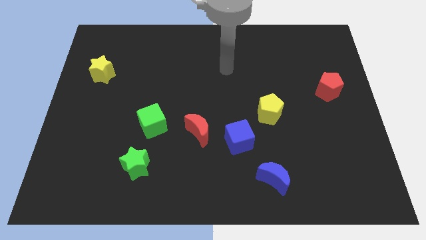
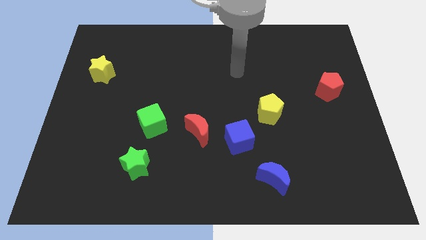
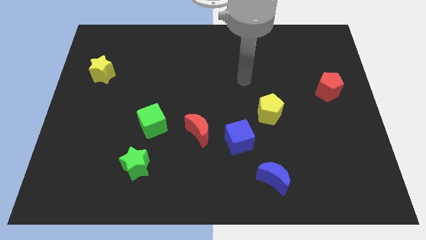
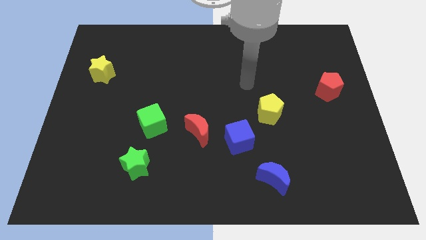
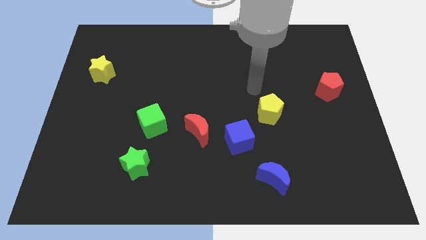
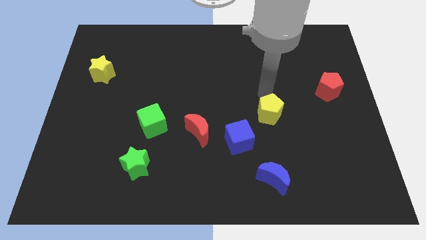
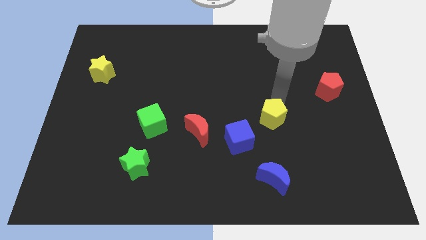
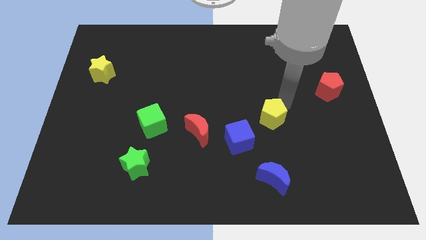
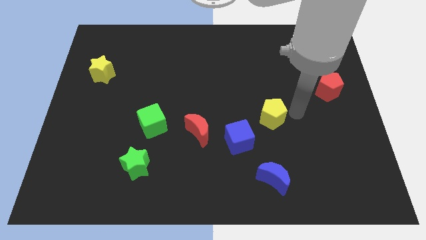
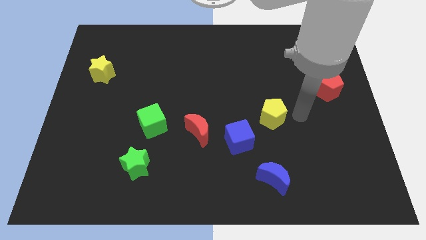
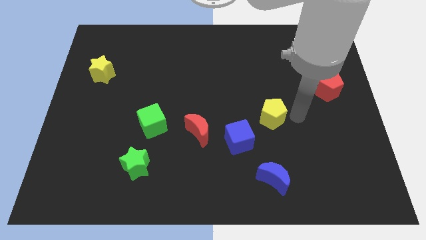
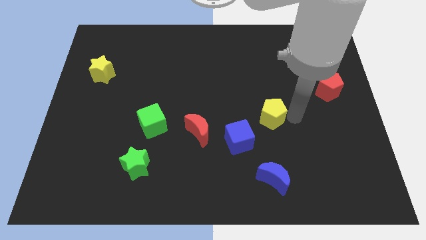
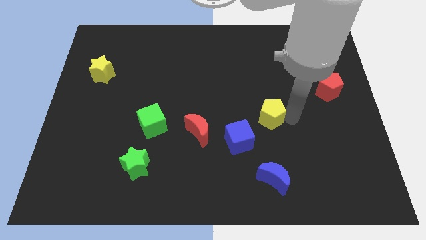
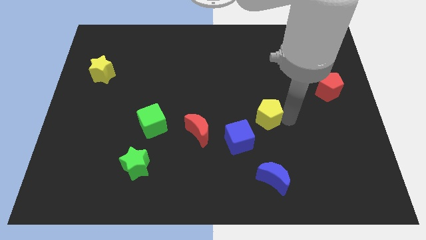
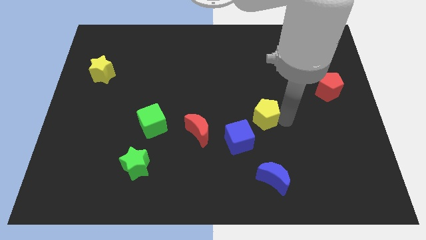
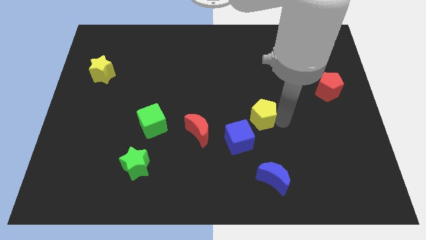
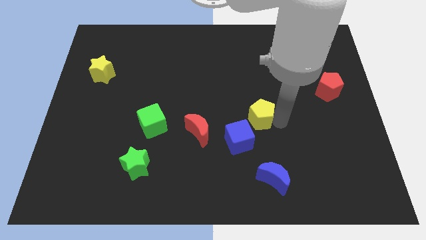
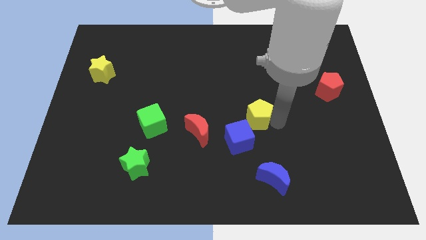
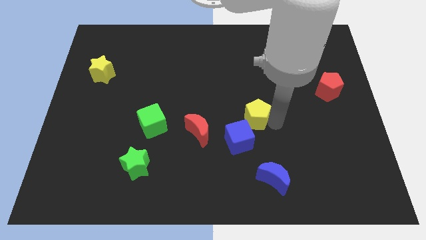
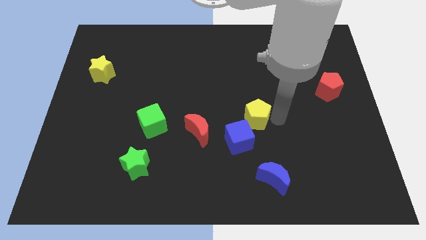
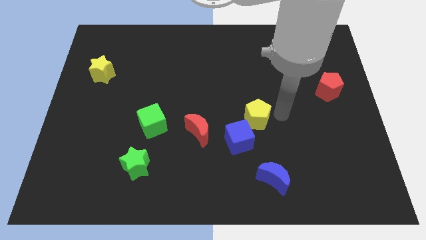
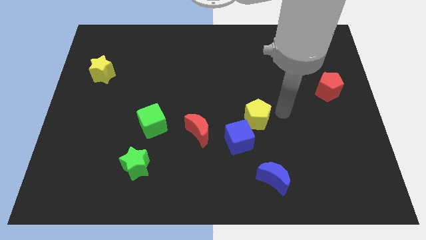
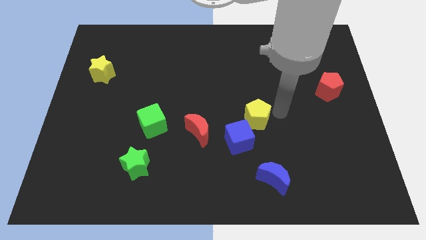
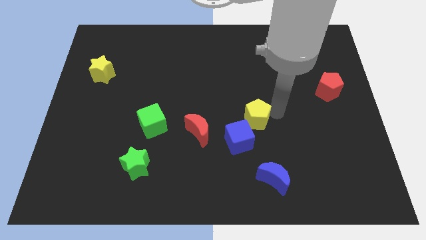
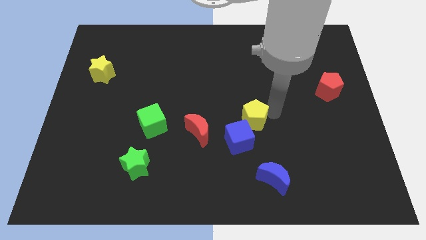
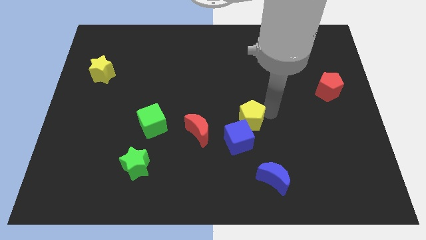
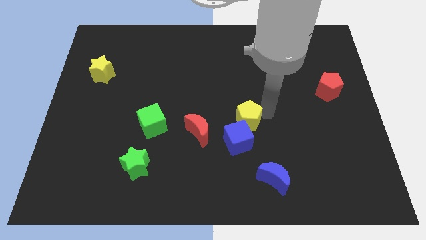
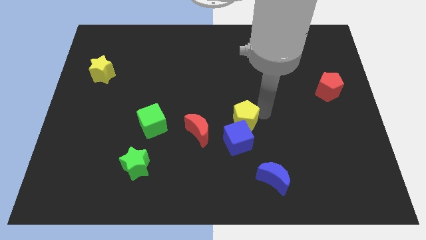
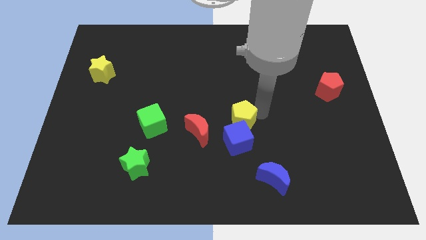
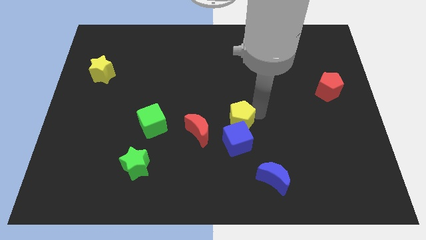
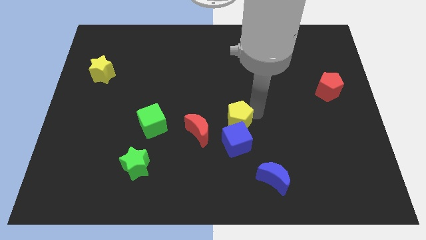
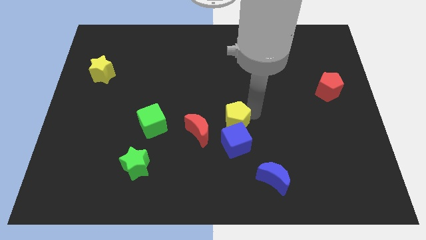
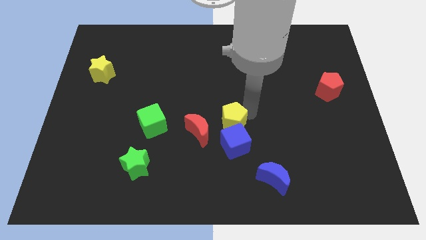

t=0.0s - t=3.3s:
move the yellow pentagon a bit down and then left

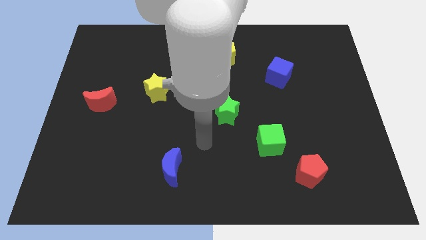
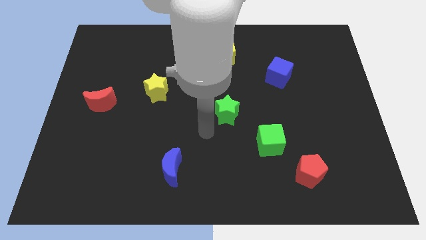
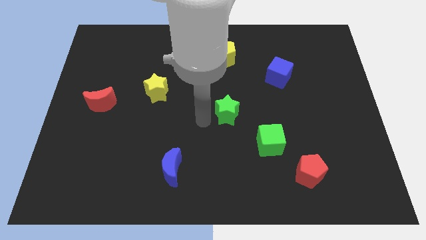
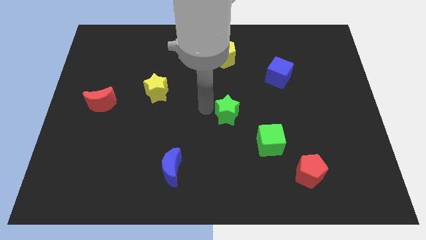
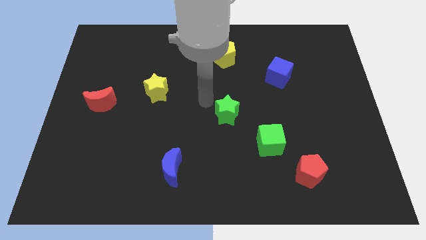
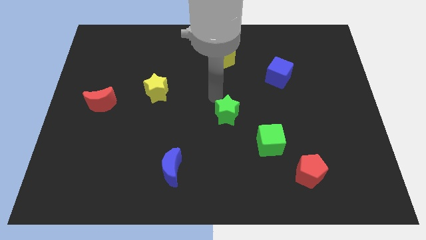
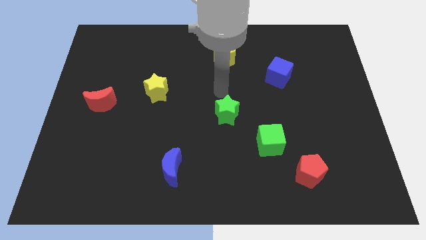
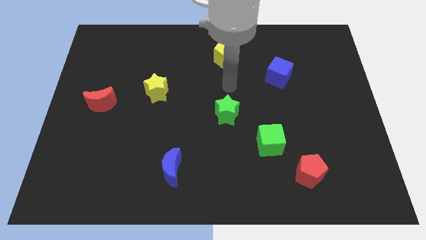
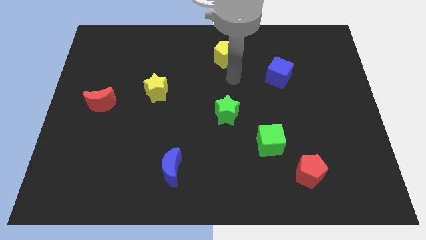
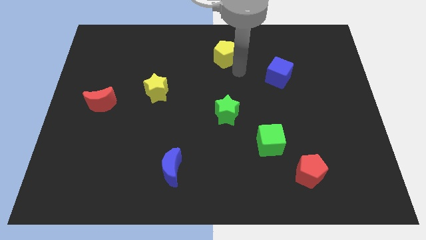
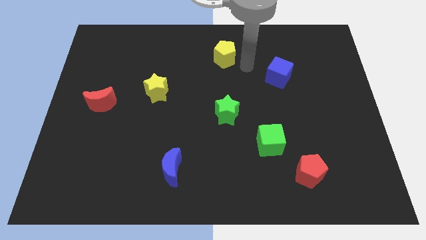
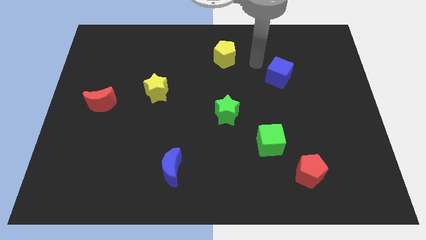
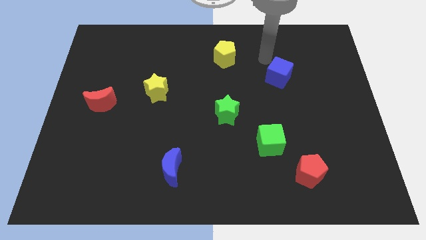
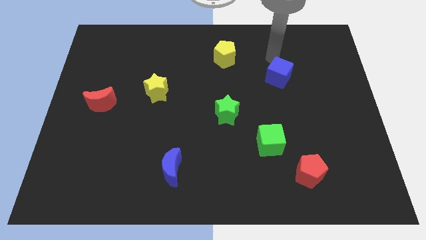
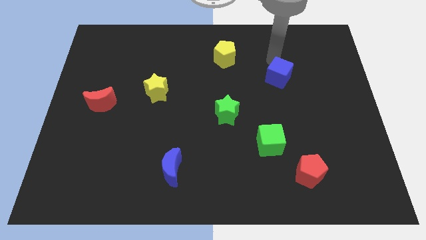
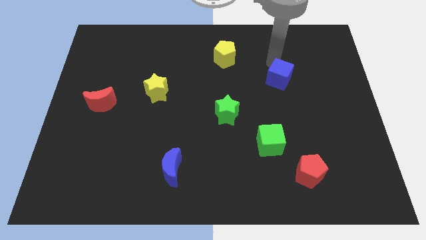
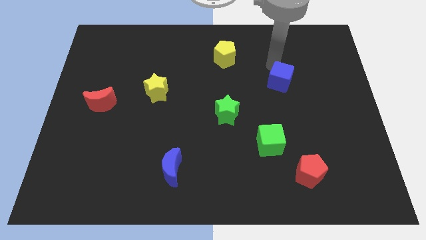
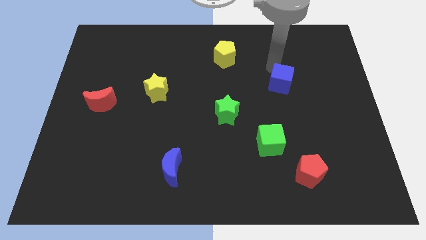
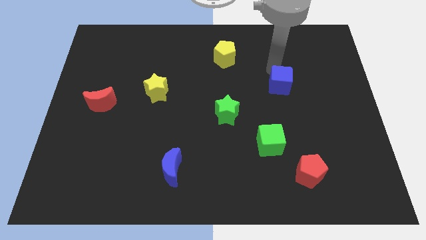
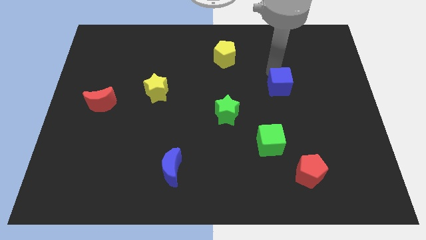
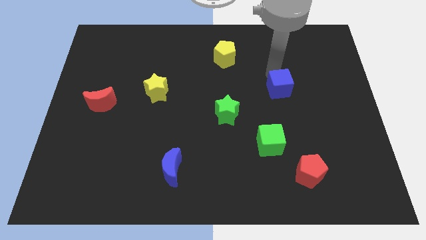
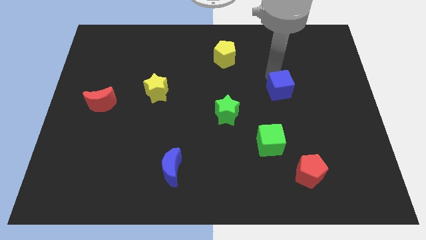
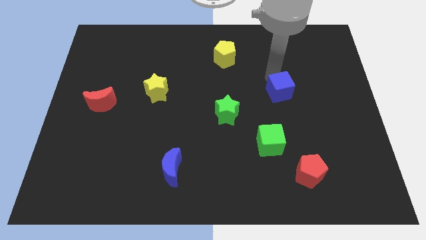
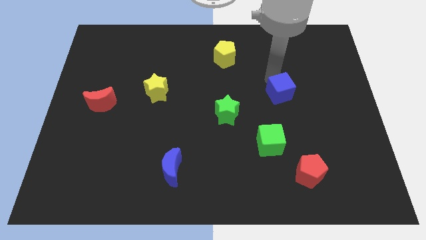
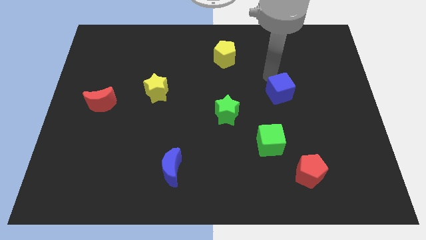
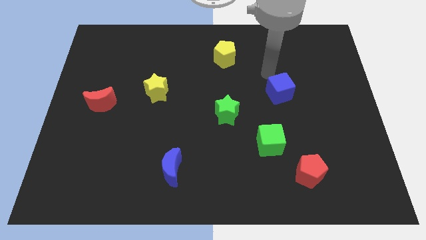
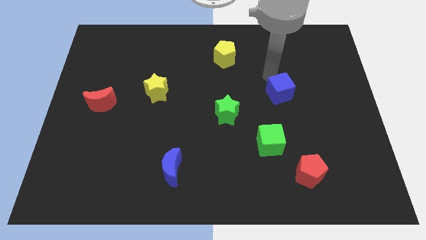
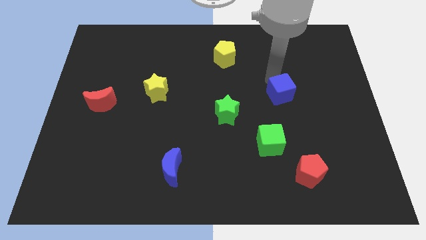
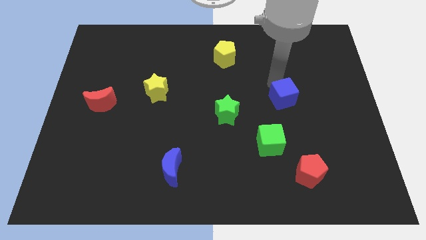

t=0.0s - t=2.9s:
slide the blue cube downwards a little bit

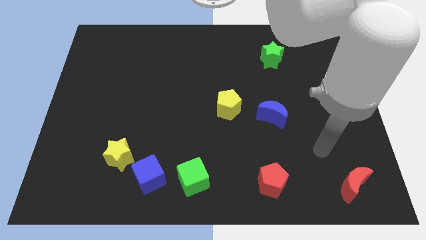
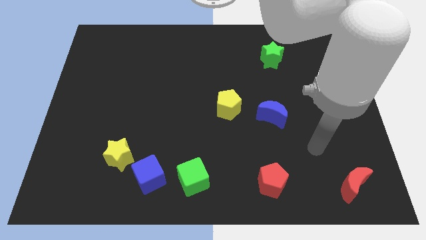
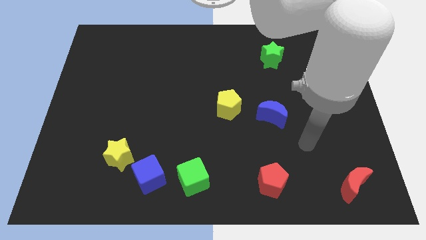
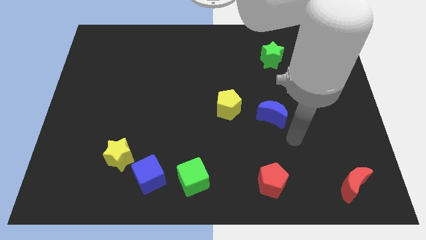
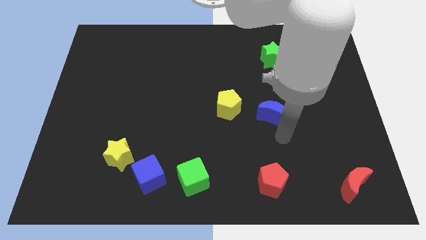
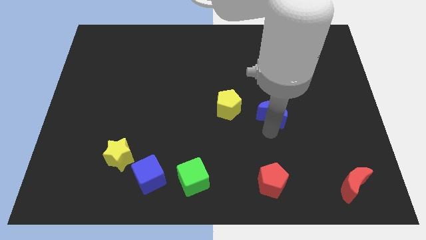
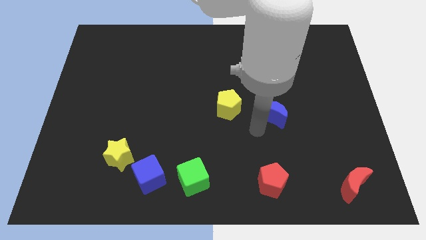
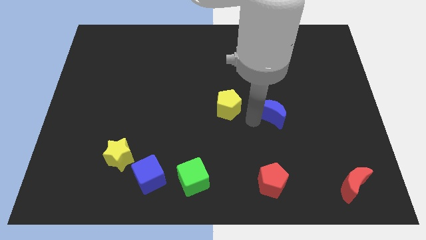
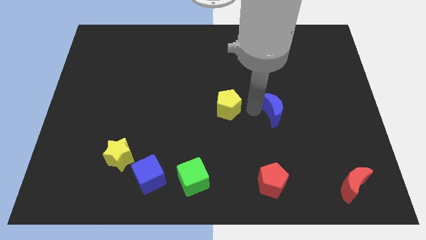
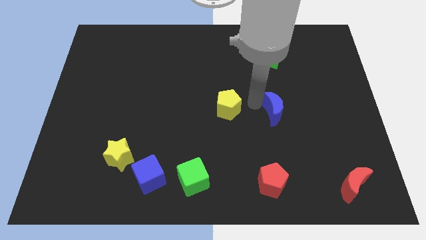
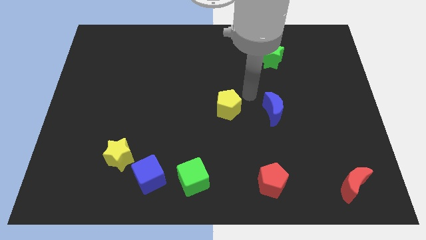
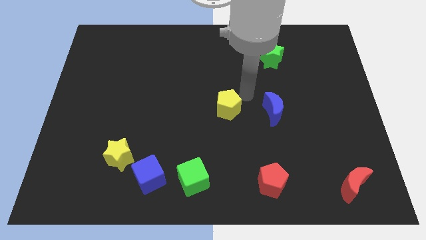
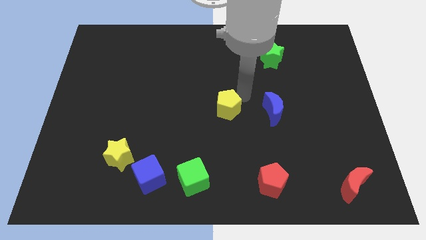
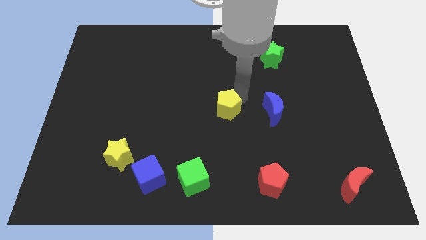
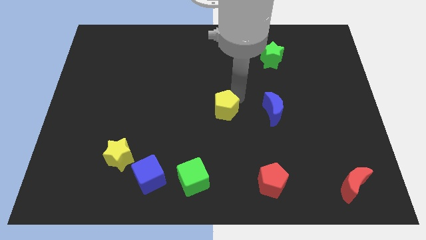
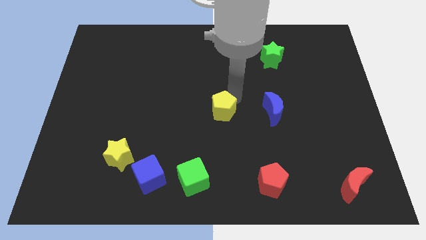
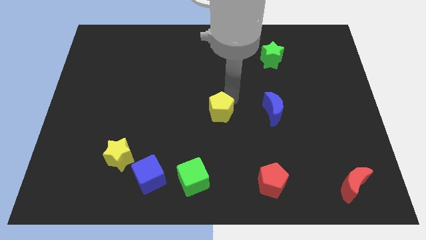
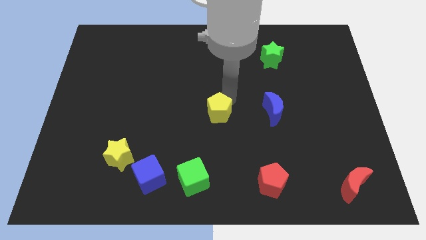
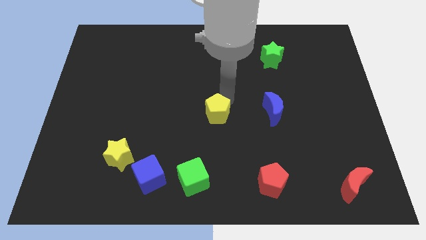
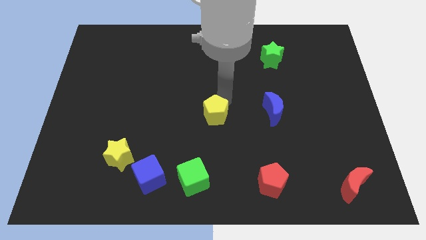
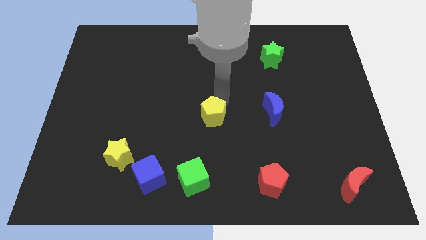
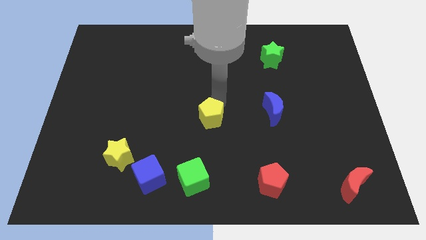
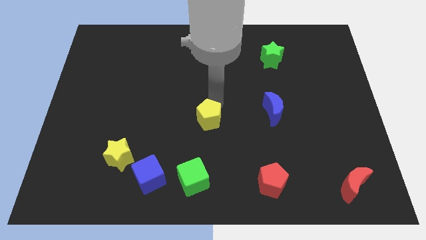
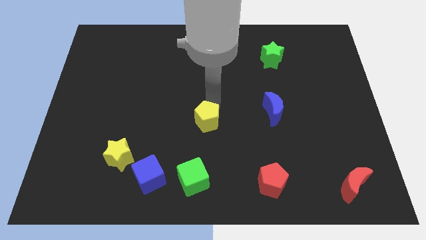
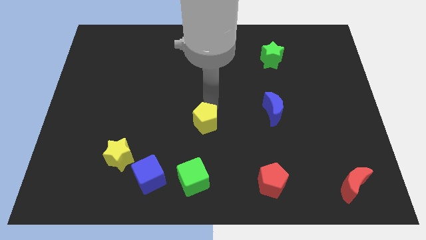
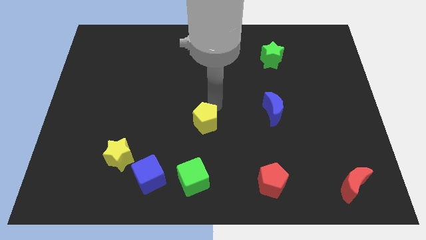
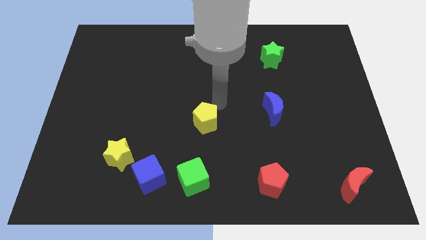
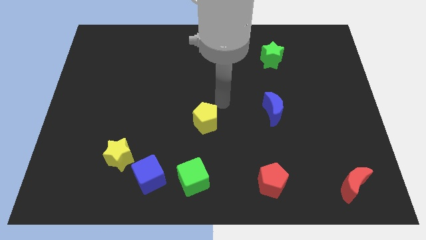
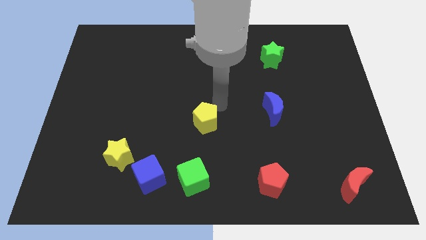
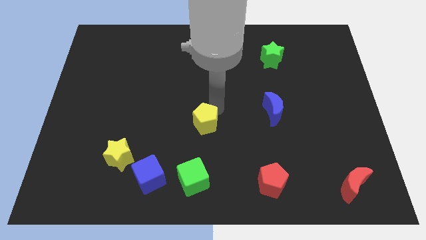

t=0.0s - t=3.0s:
move the yellow pentagon a little diagonally downwards and to the left
